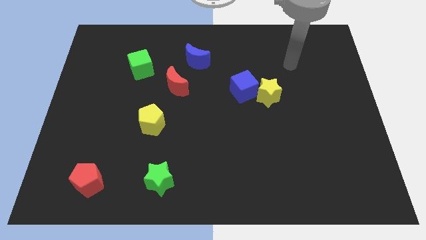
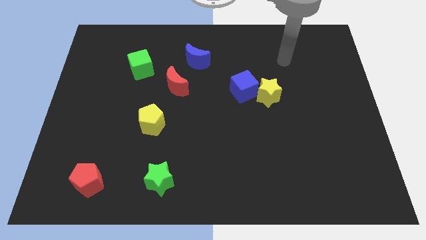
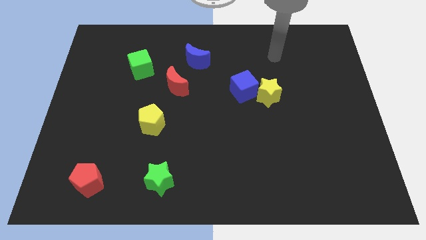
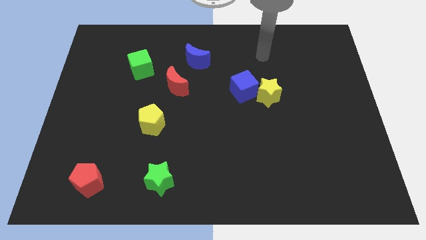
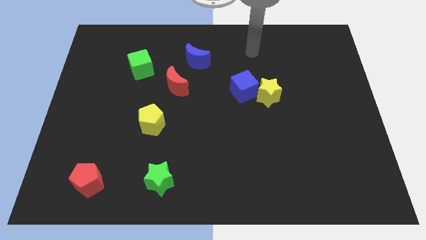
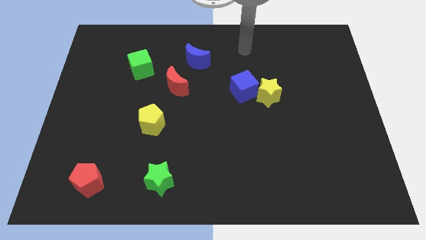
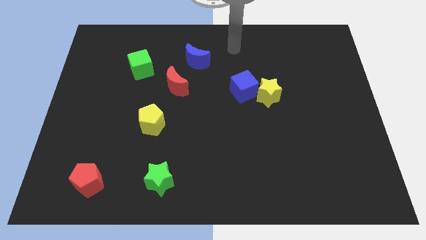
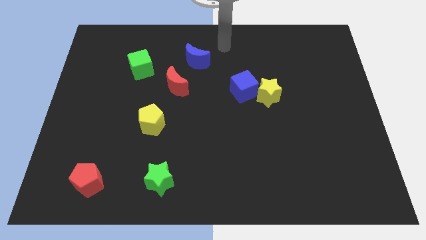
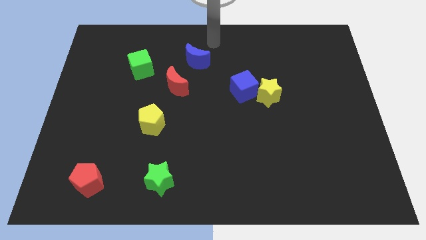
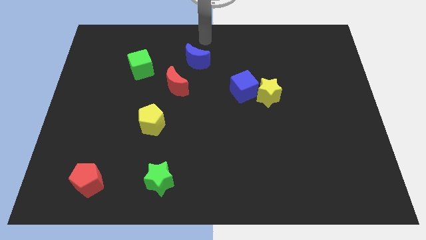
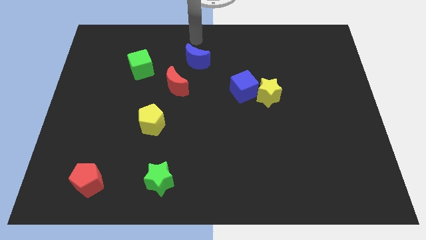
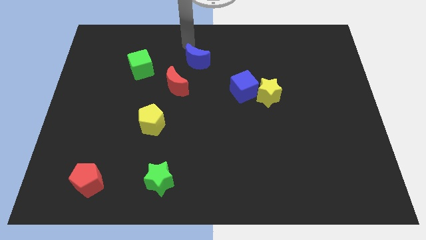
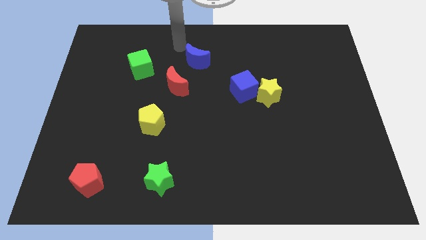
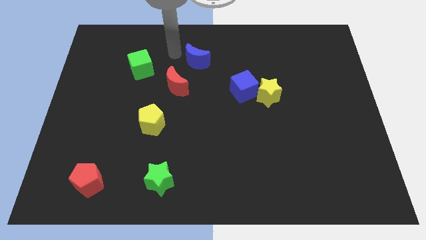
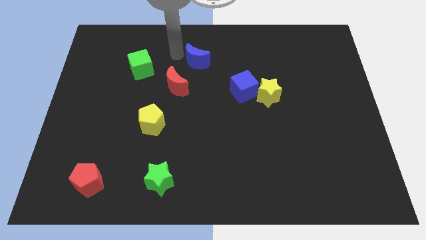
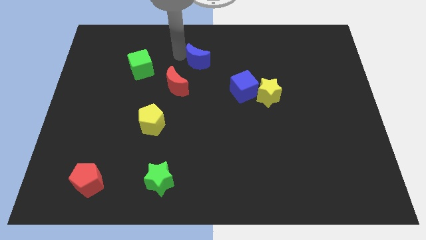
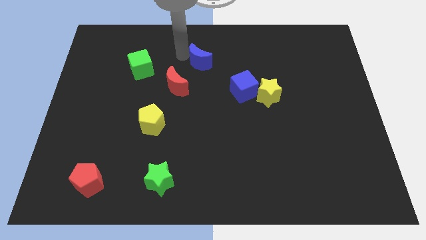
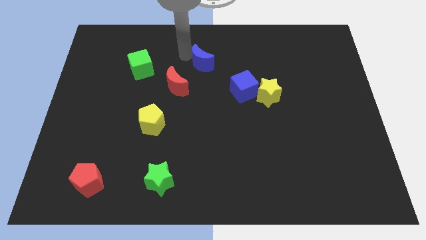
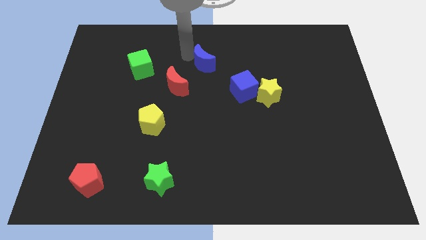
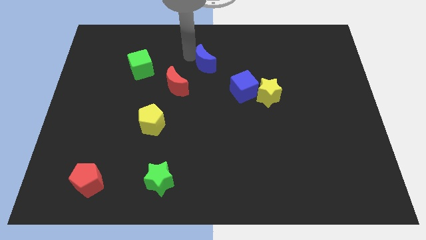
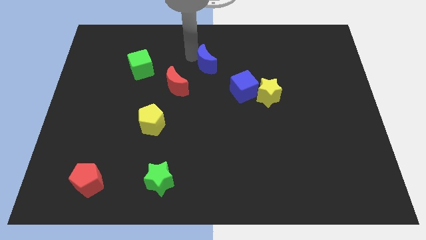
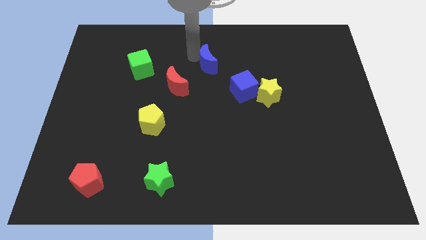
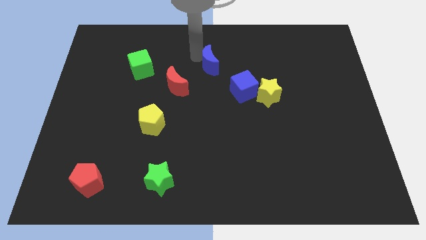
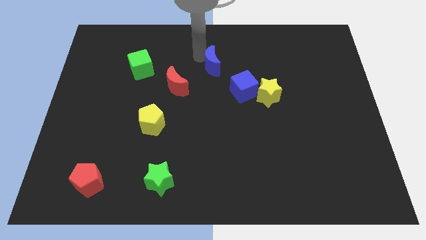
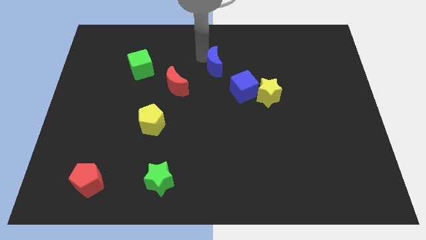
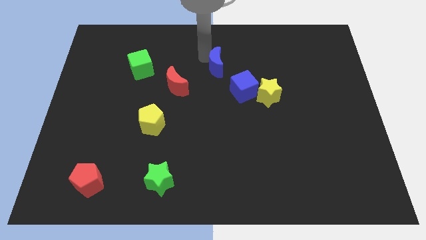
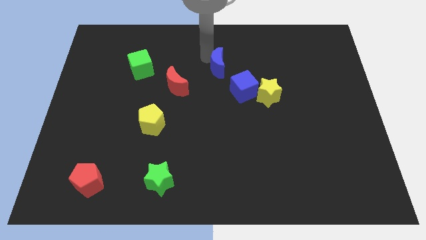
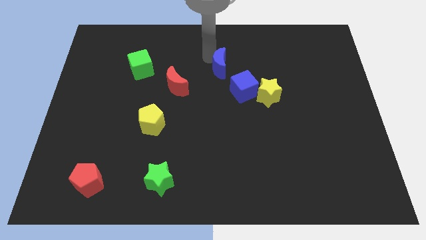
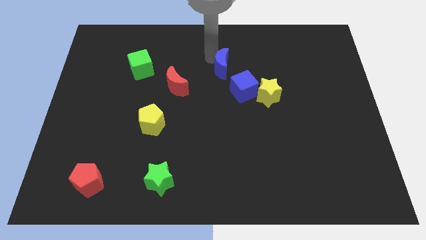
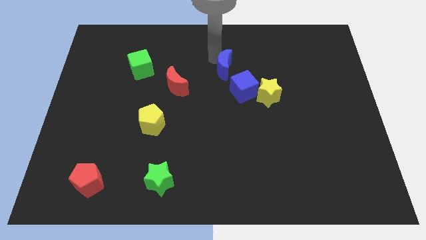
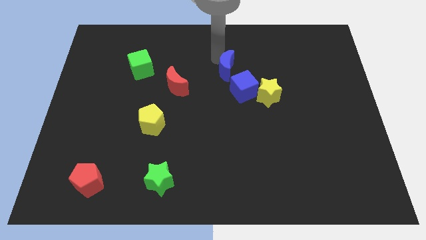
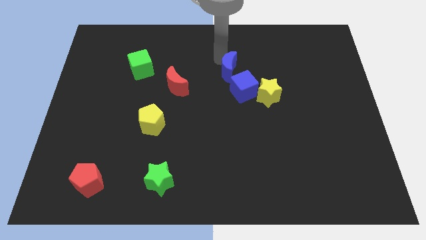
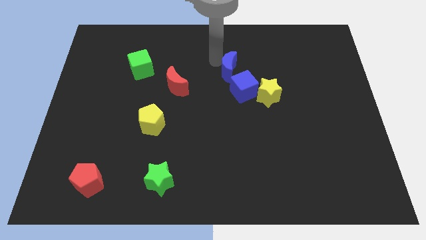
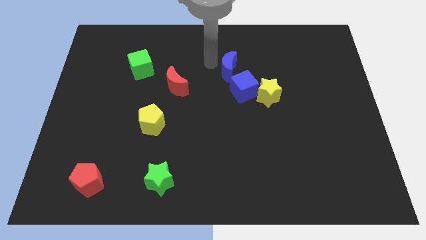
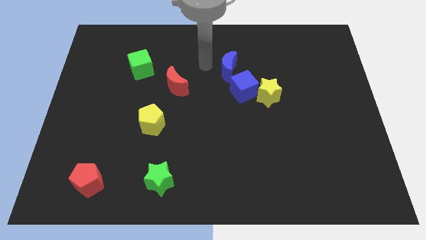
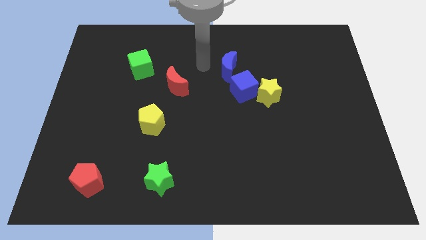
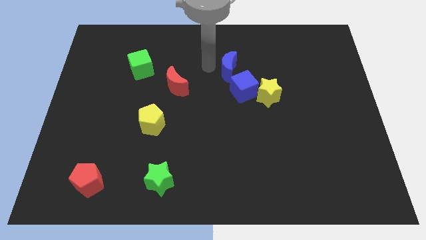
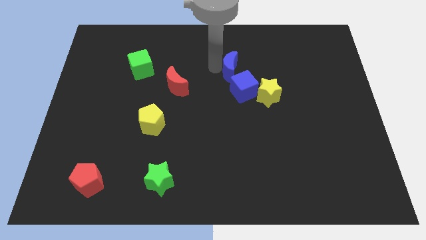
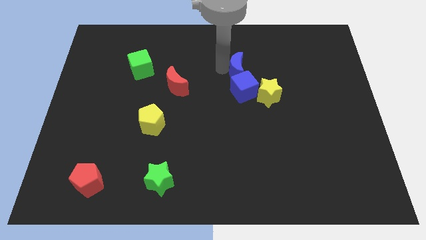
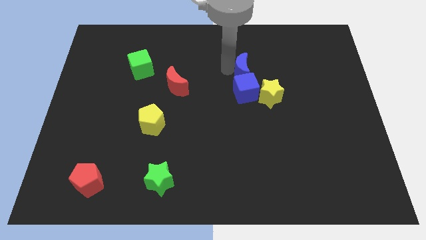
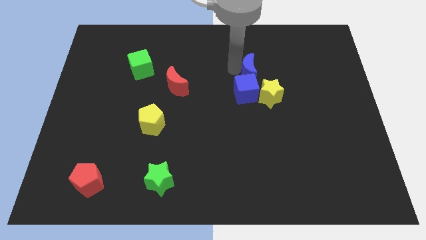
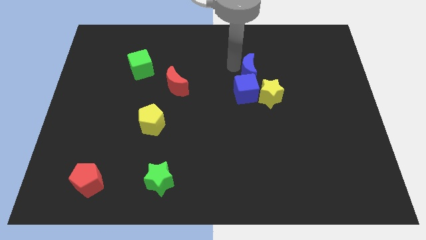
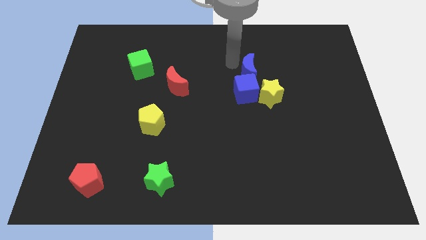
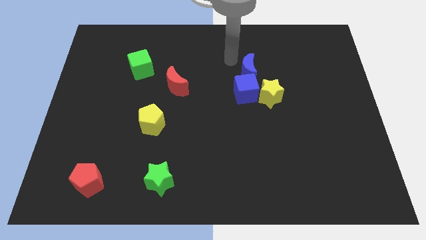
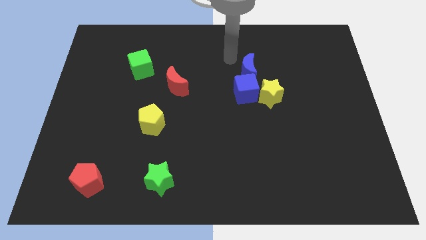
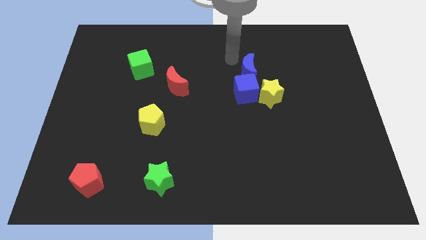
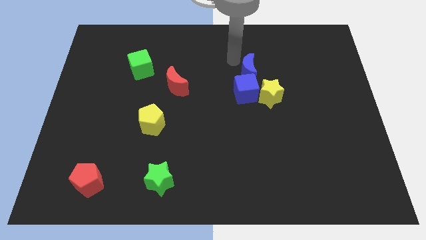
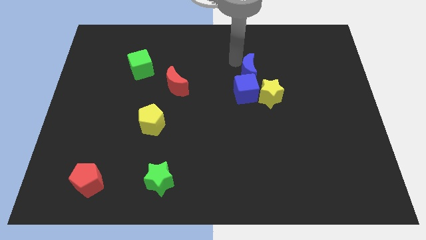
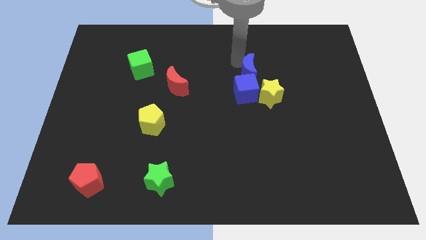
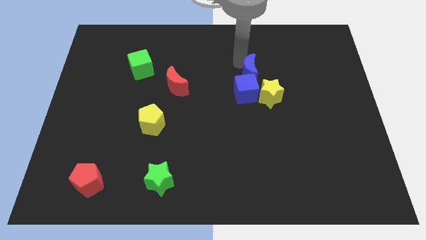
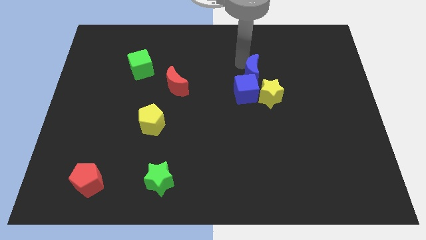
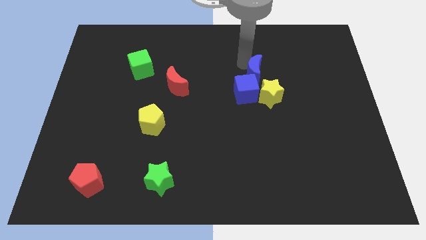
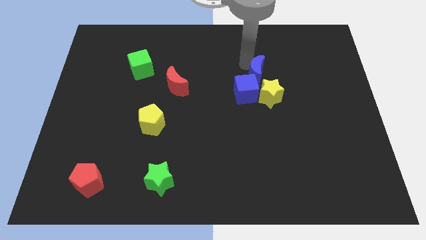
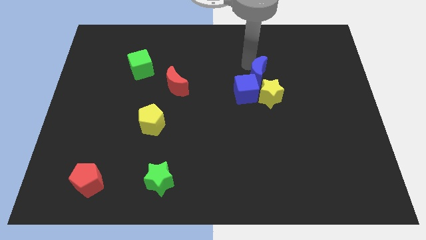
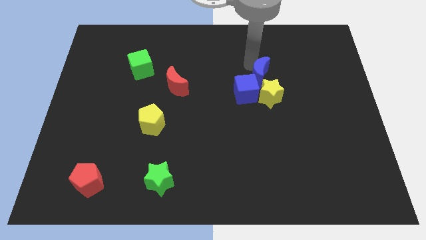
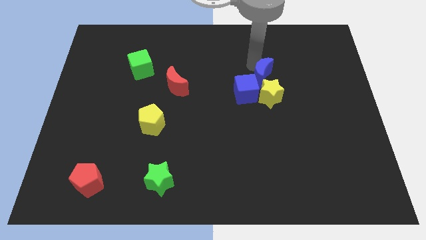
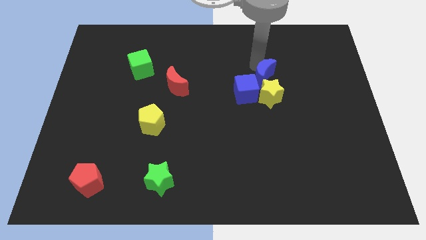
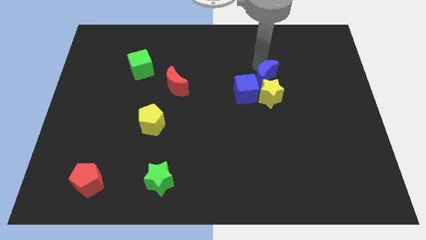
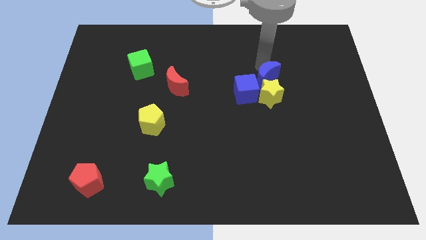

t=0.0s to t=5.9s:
put the blue moon towards the yellow star

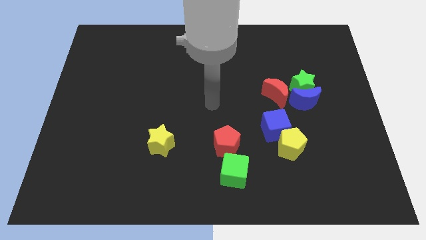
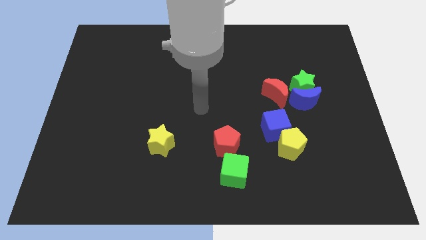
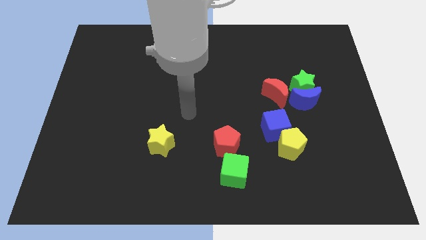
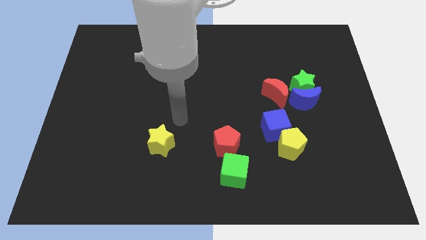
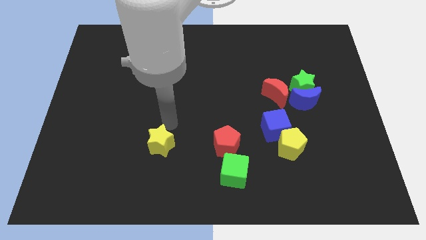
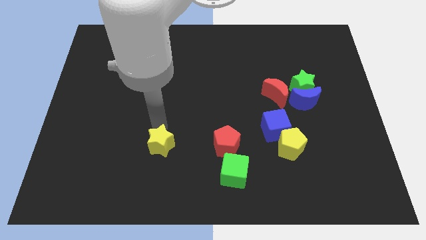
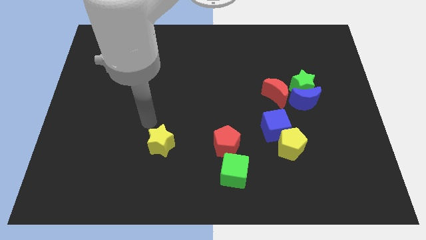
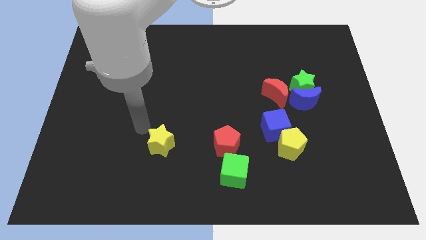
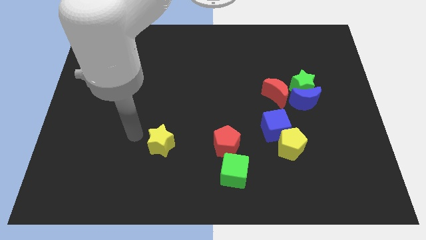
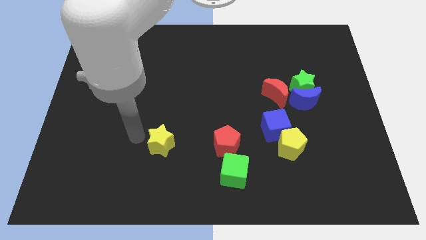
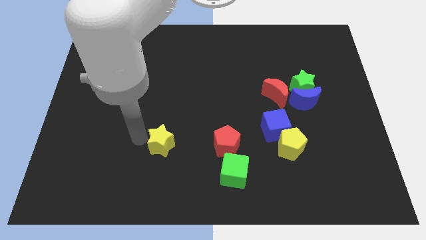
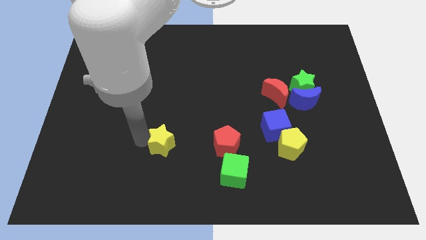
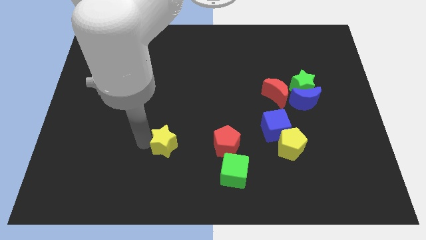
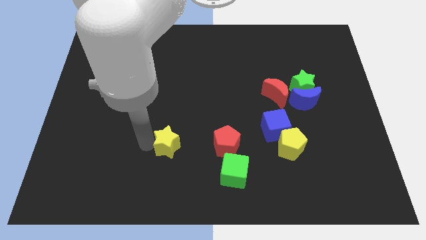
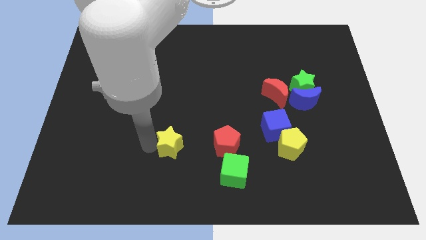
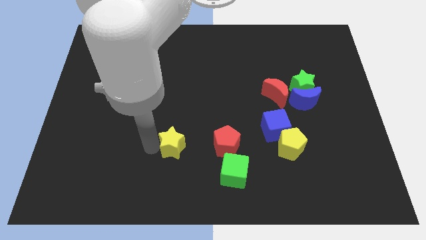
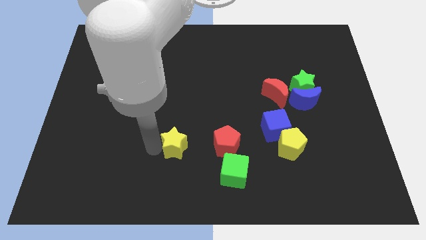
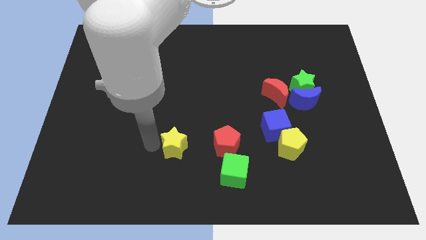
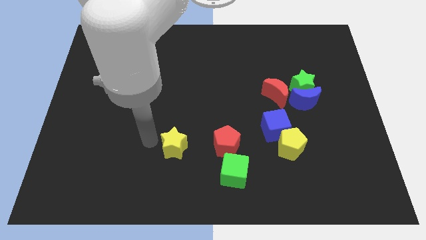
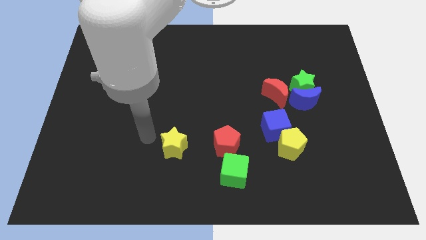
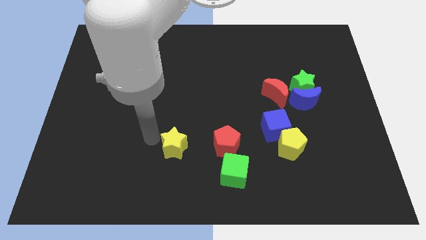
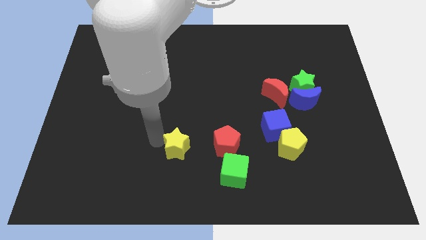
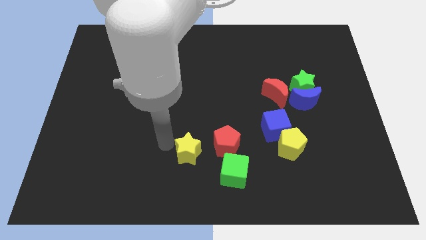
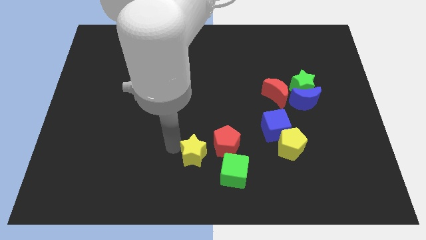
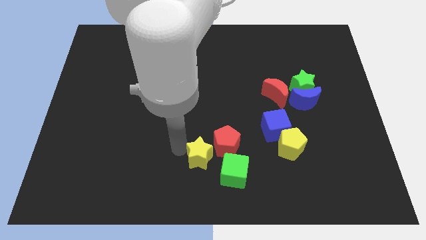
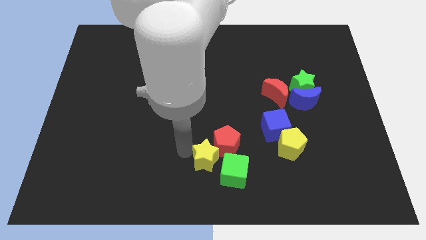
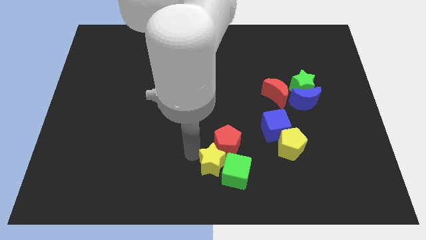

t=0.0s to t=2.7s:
slide the yellow star towards the green cube
